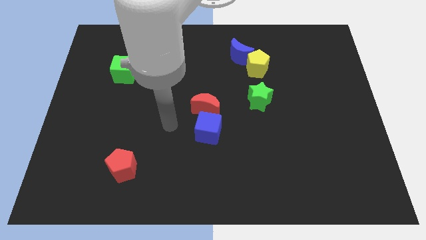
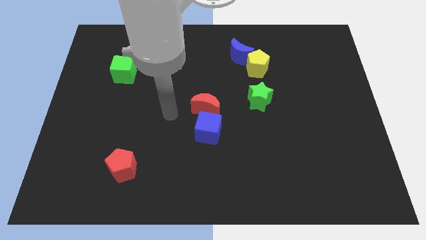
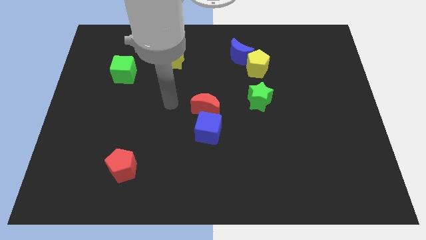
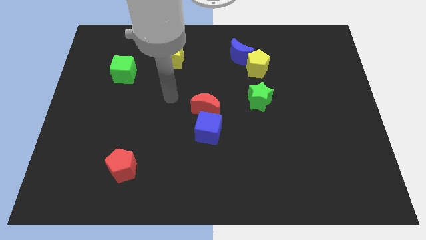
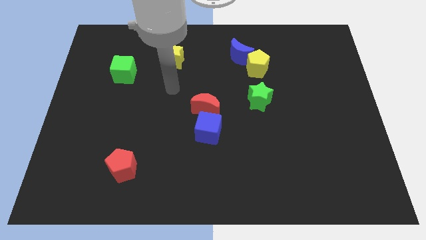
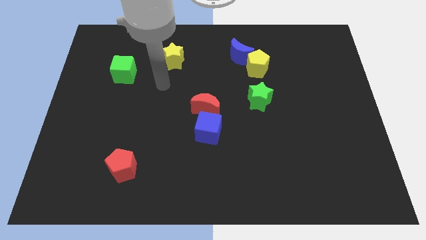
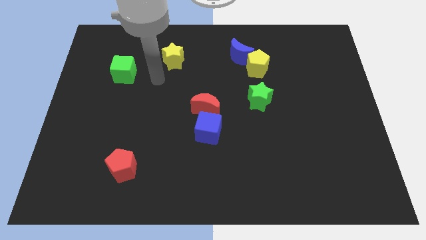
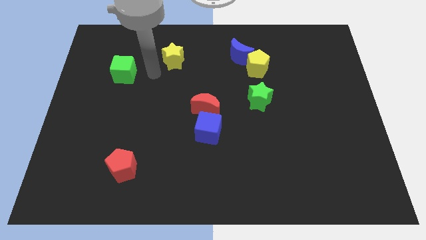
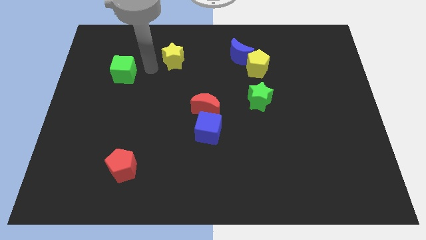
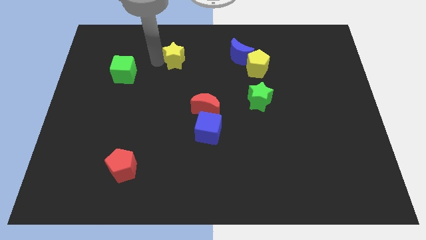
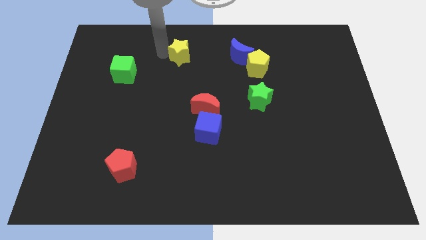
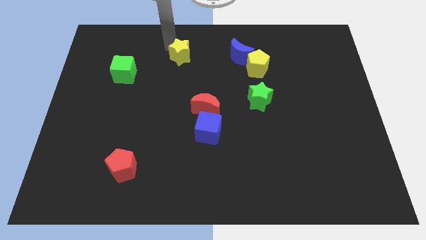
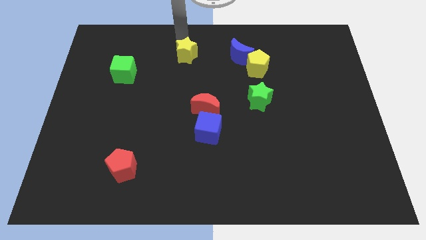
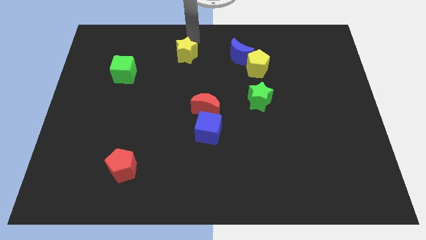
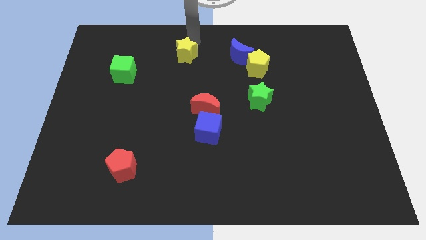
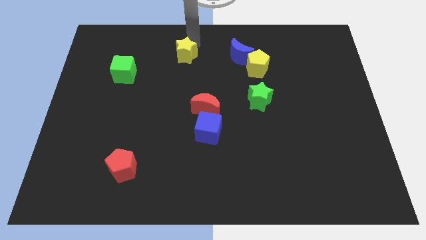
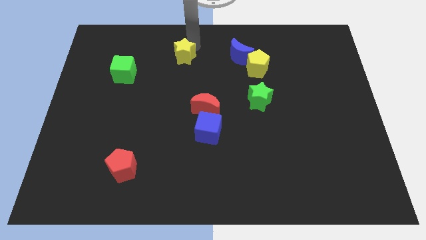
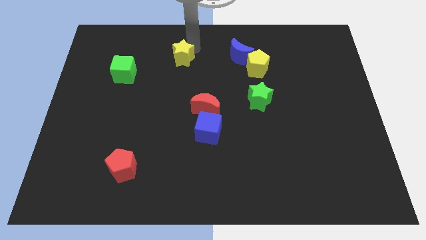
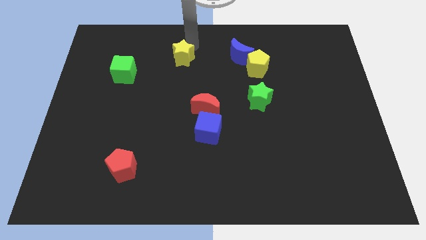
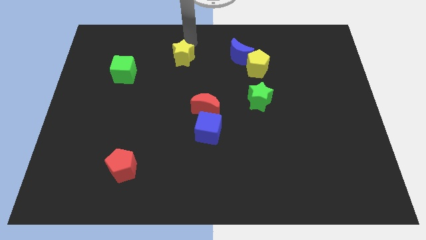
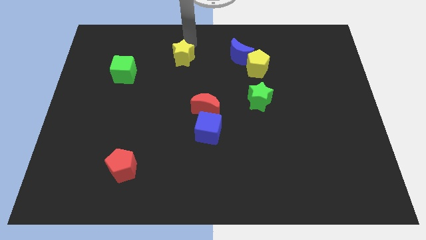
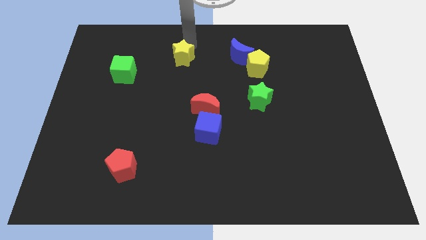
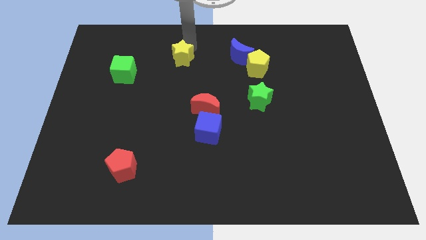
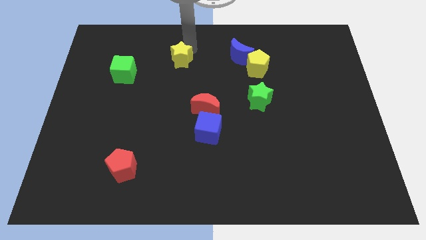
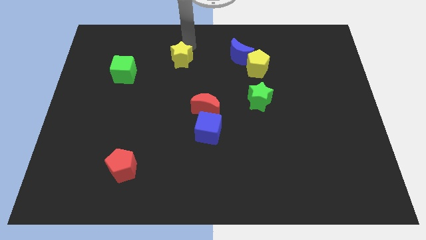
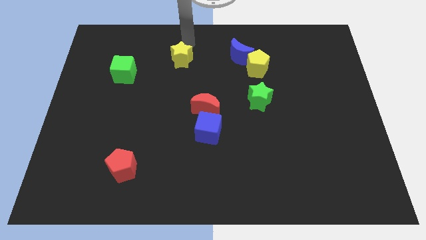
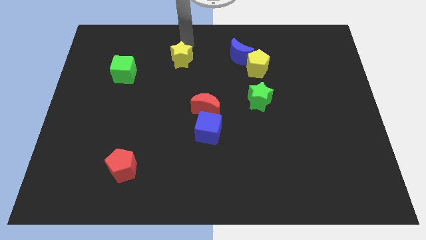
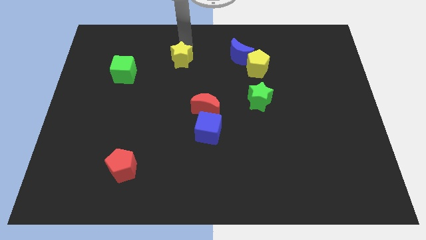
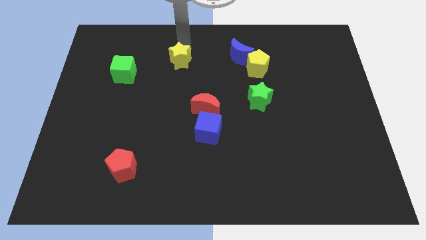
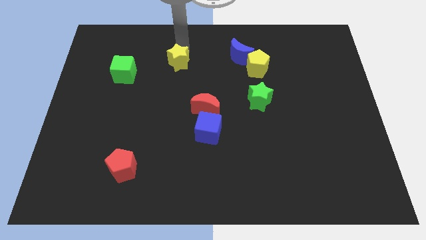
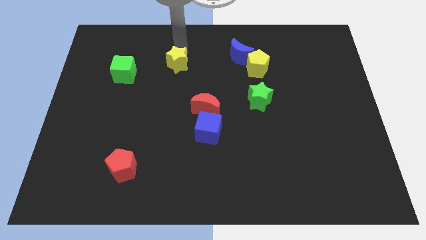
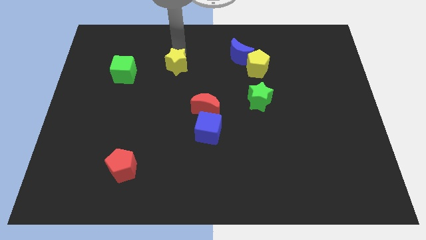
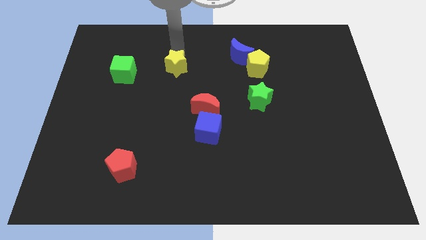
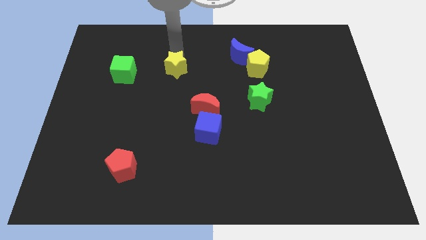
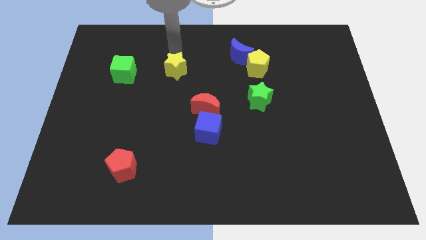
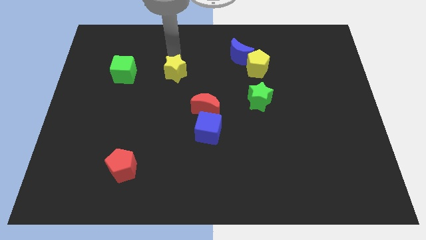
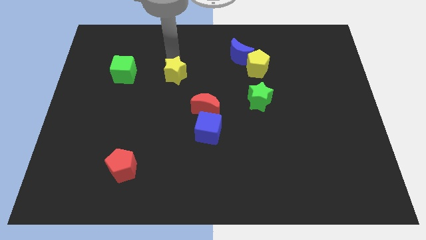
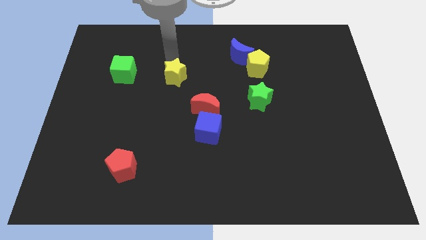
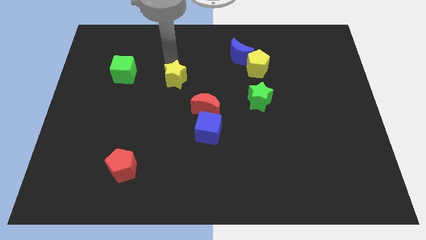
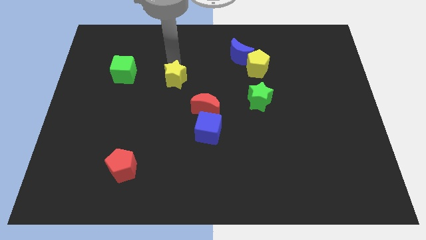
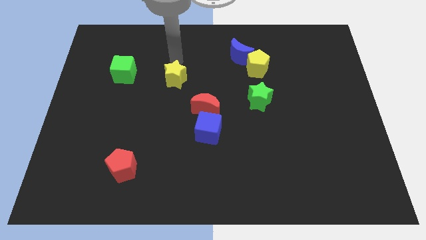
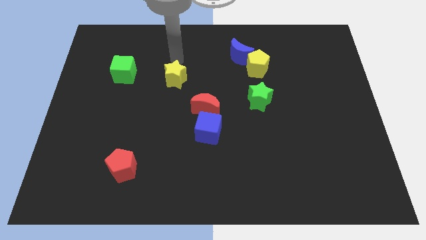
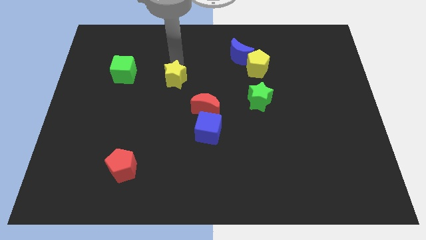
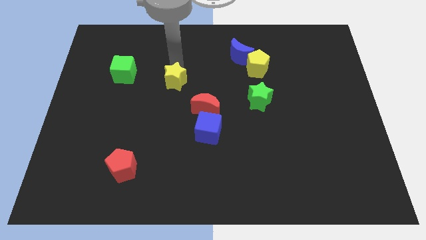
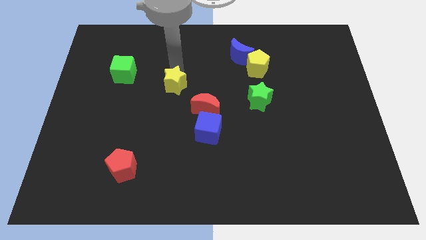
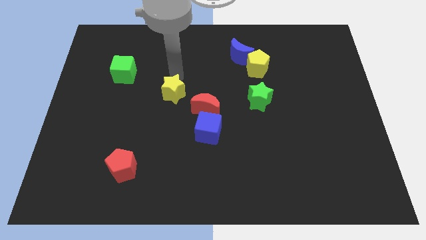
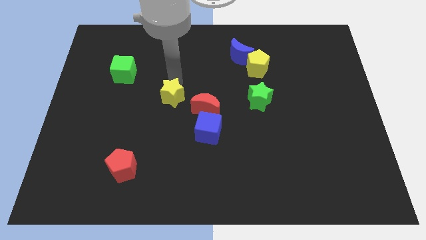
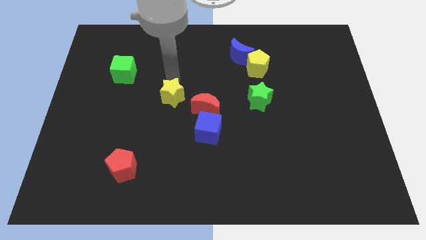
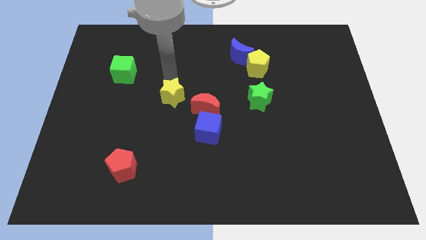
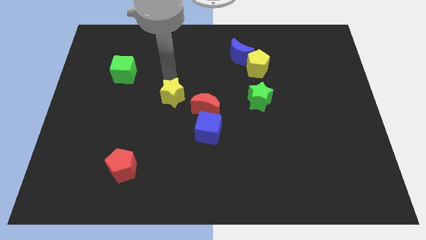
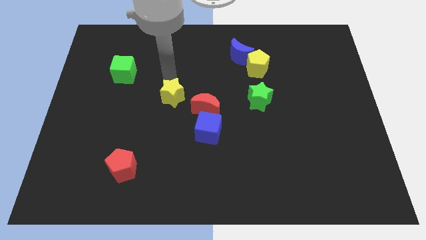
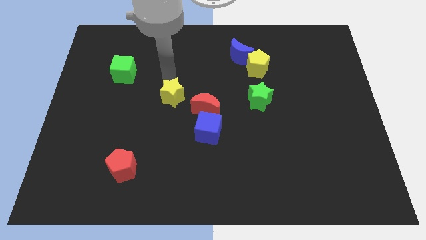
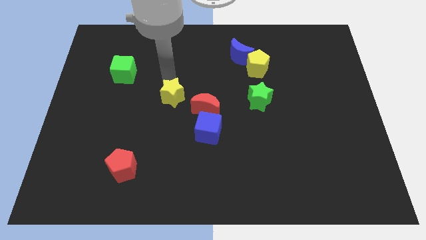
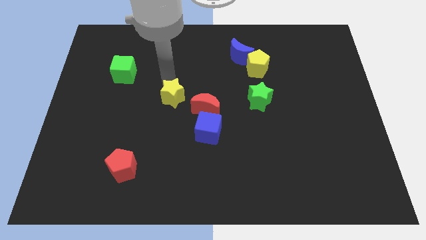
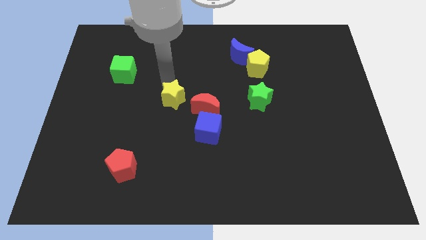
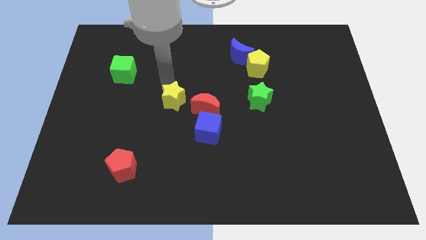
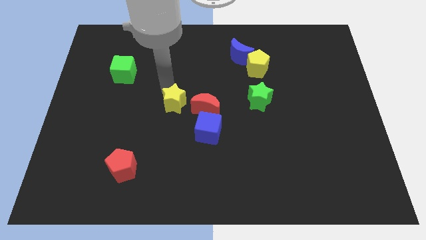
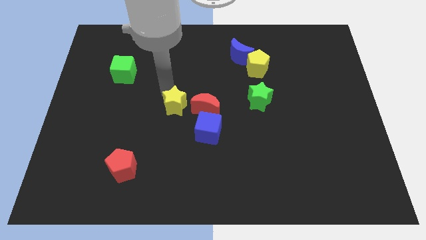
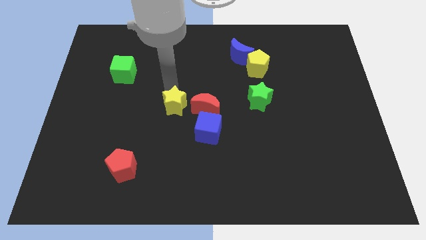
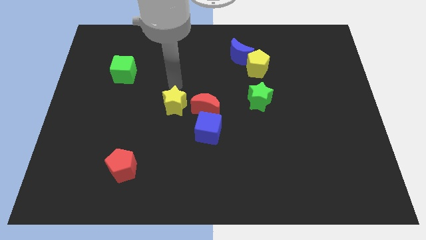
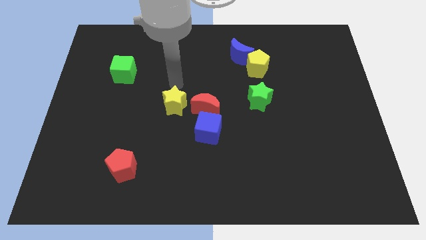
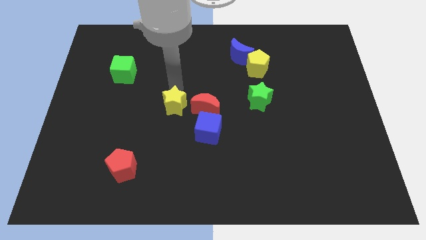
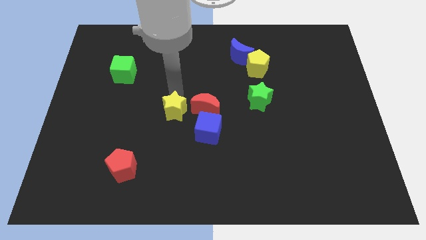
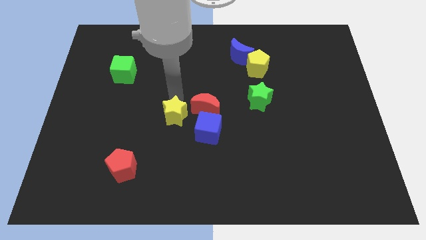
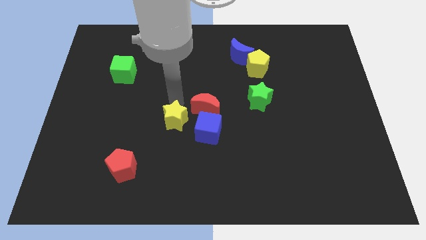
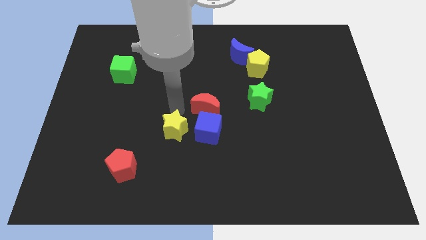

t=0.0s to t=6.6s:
push the yellow star down

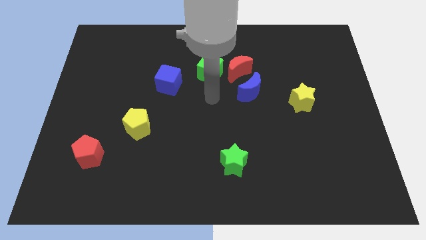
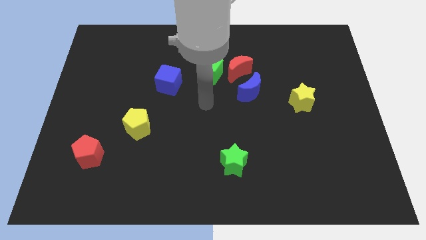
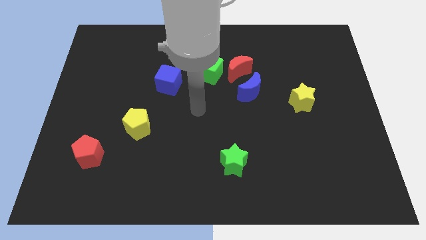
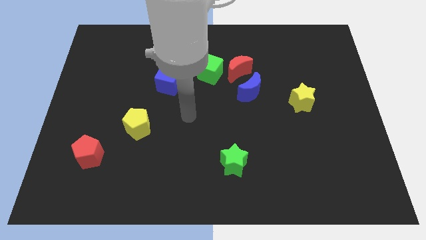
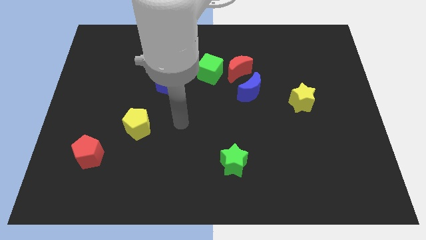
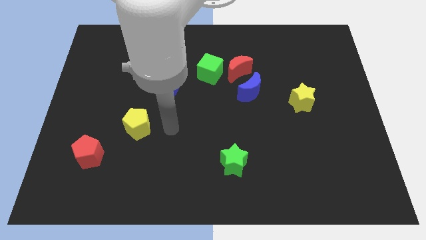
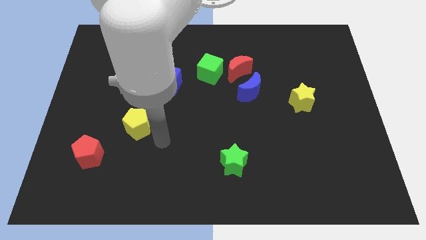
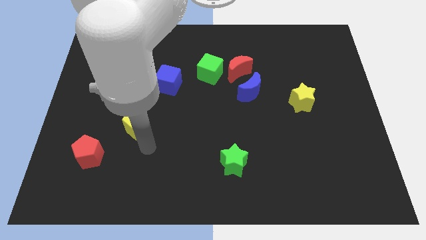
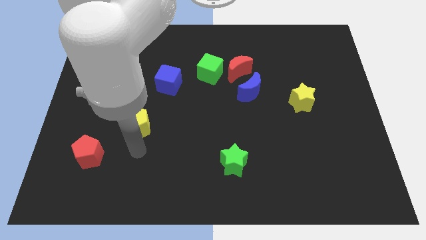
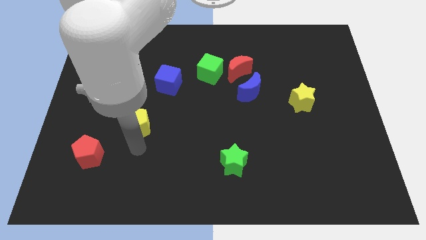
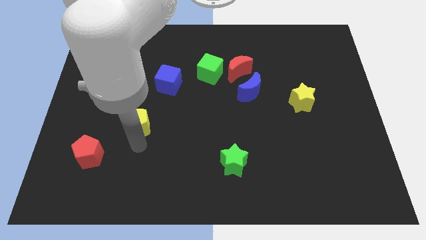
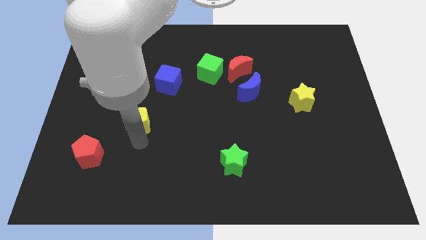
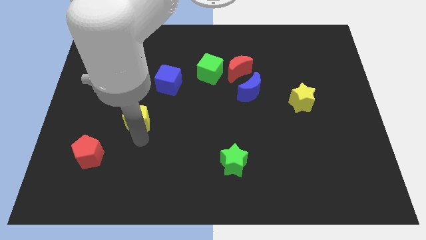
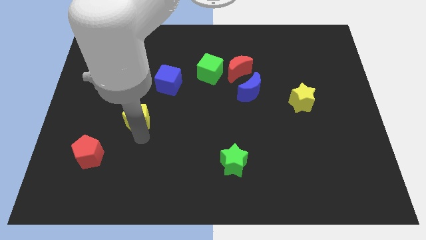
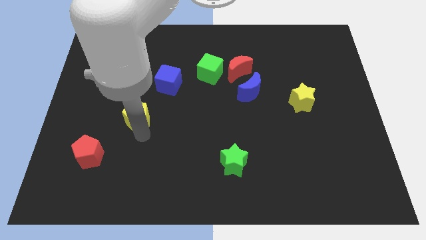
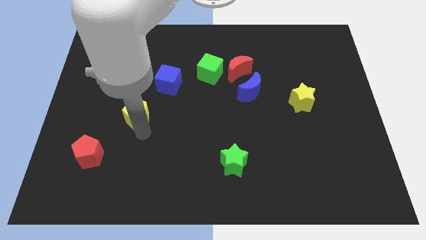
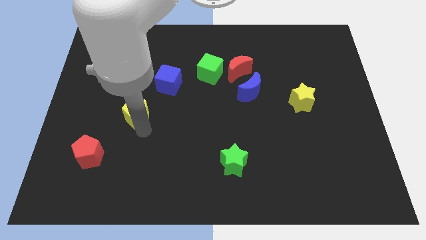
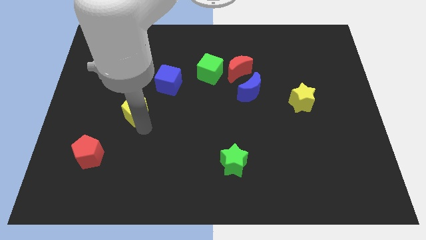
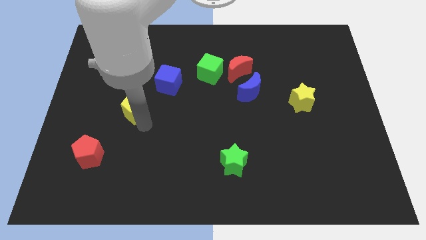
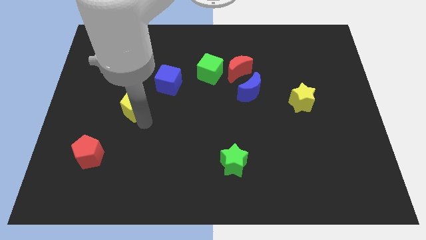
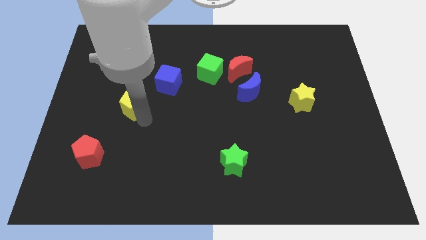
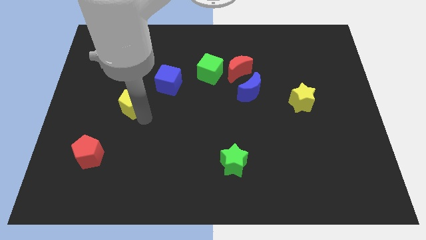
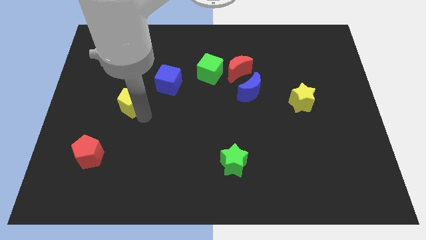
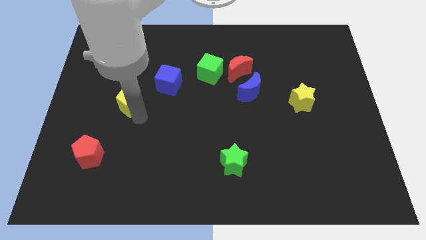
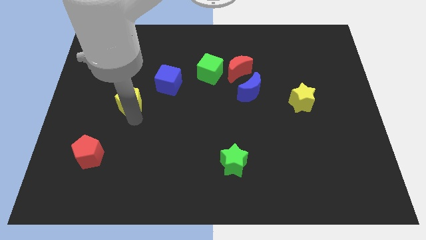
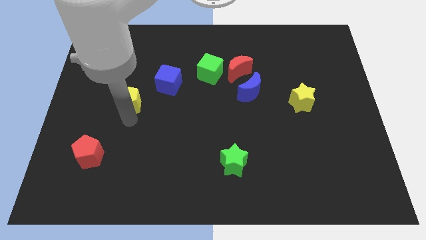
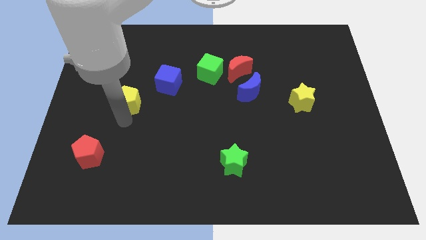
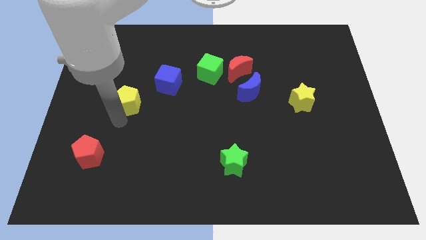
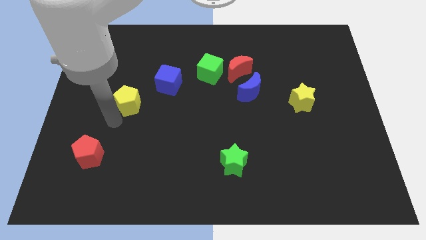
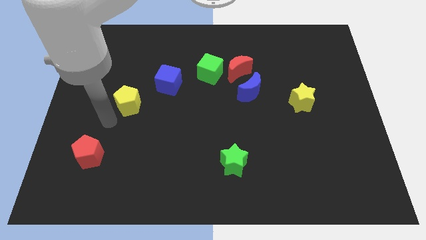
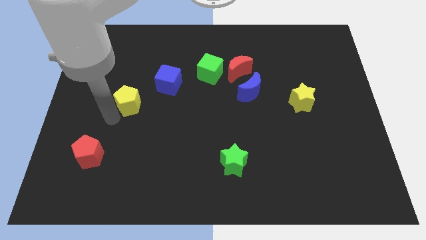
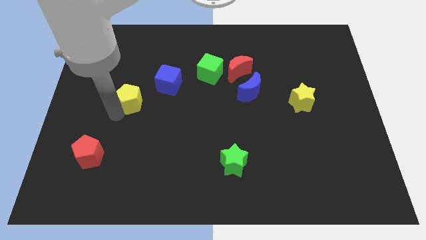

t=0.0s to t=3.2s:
slide the yellow pentagon a little up
